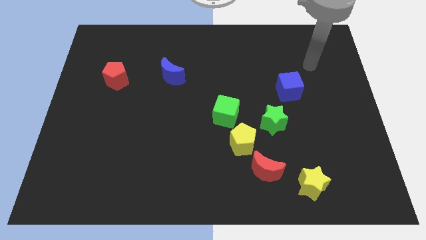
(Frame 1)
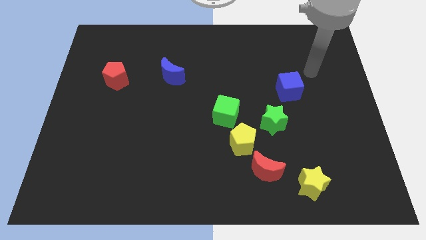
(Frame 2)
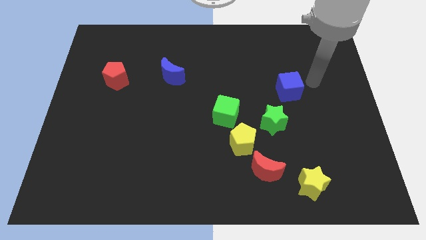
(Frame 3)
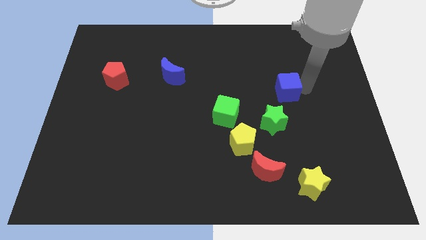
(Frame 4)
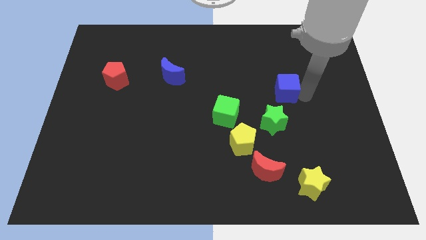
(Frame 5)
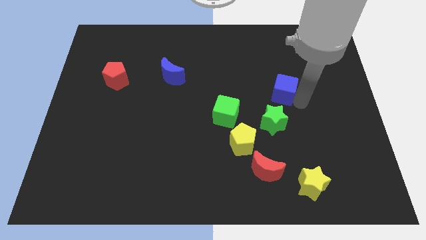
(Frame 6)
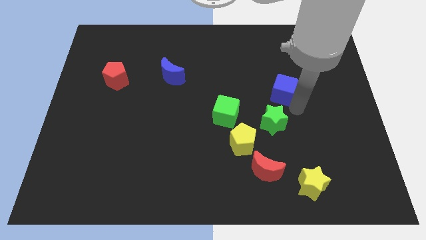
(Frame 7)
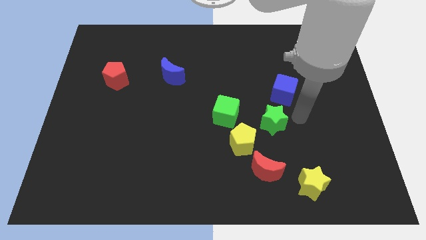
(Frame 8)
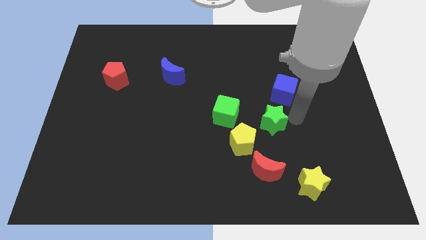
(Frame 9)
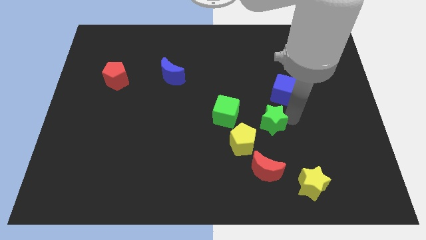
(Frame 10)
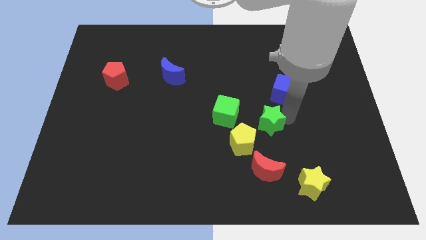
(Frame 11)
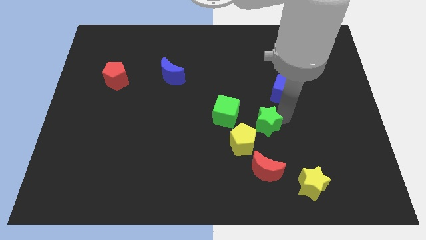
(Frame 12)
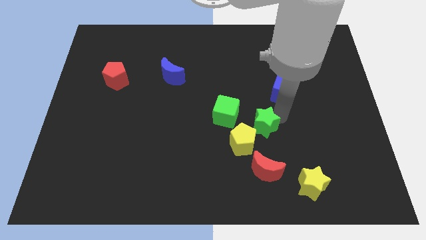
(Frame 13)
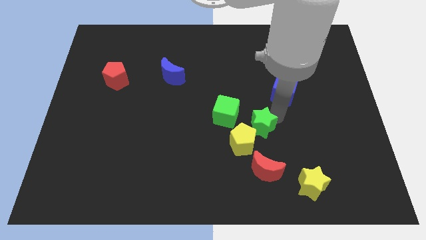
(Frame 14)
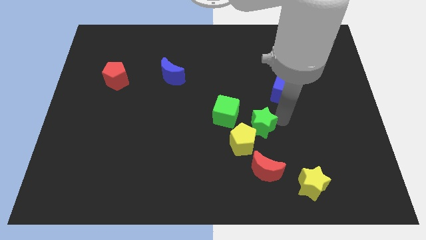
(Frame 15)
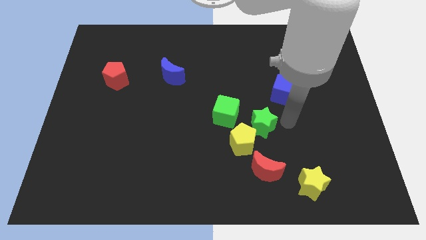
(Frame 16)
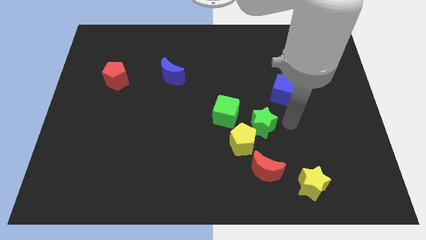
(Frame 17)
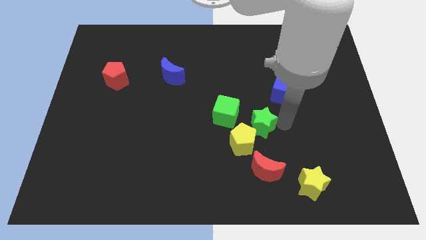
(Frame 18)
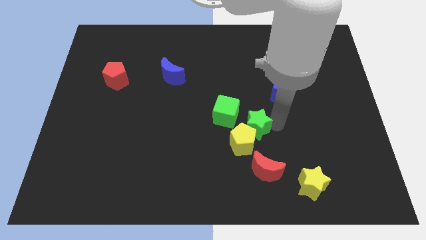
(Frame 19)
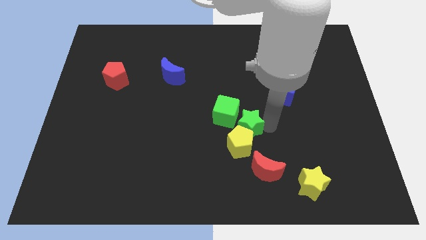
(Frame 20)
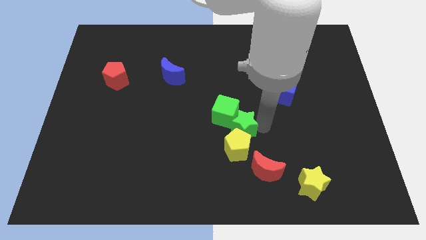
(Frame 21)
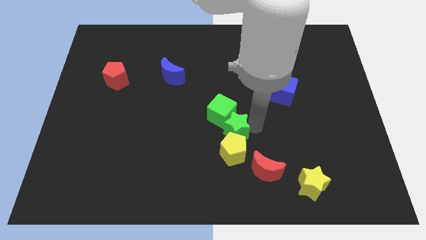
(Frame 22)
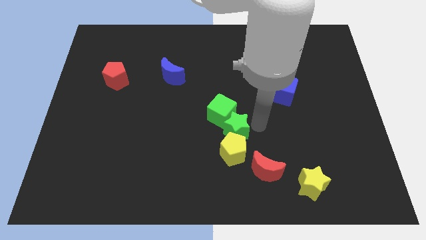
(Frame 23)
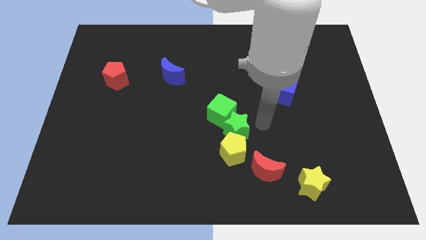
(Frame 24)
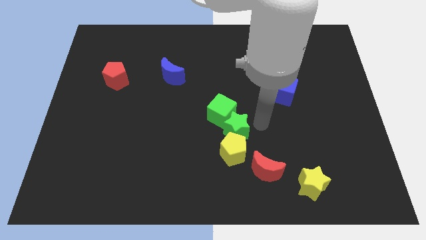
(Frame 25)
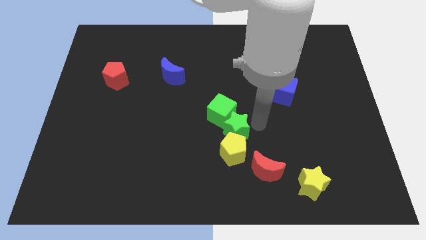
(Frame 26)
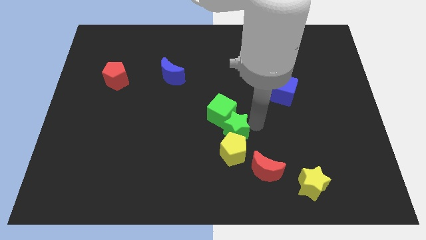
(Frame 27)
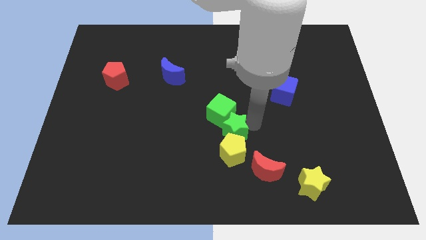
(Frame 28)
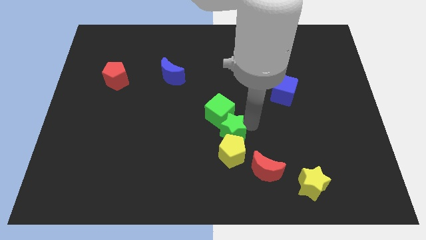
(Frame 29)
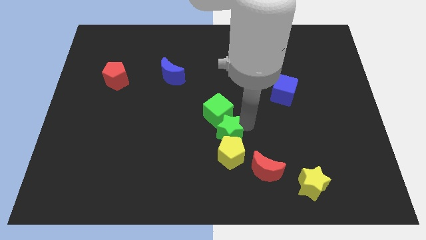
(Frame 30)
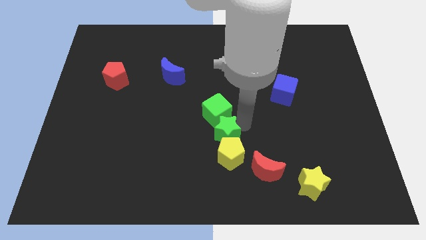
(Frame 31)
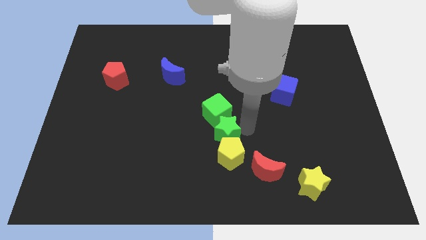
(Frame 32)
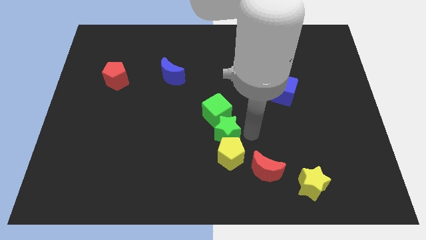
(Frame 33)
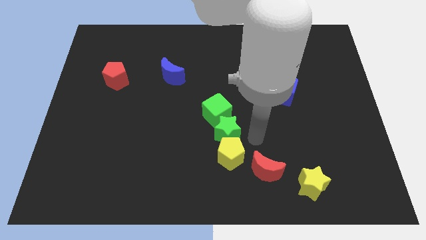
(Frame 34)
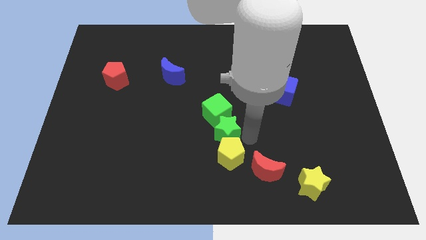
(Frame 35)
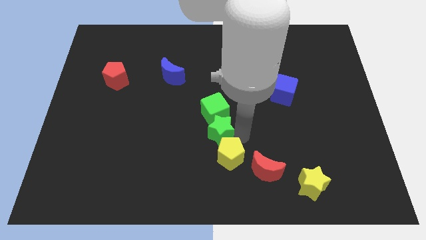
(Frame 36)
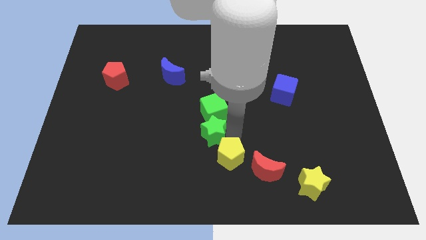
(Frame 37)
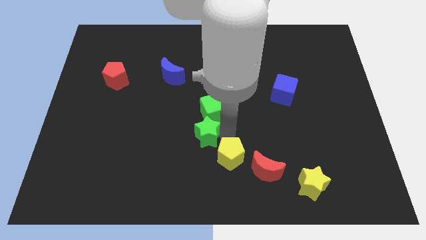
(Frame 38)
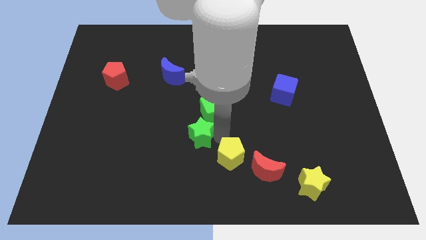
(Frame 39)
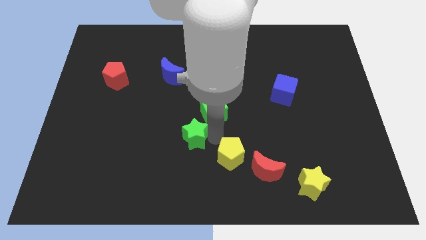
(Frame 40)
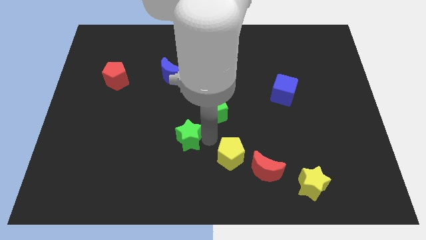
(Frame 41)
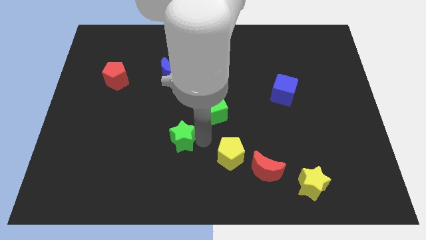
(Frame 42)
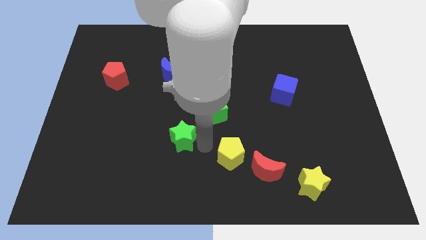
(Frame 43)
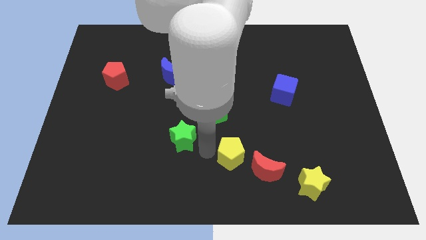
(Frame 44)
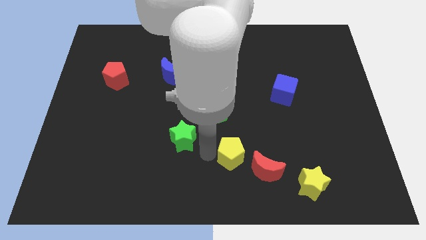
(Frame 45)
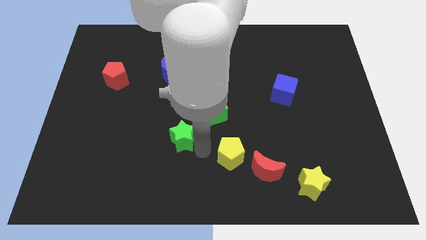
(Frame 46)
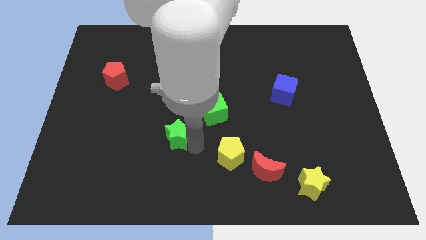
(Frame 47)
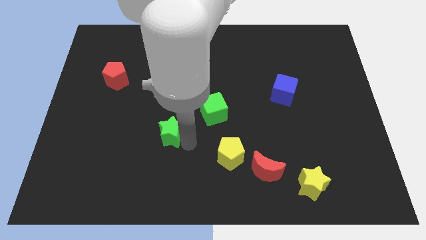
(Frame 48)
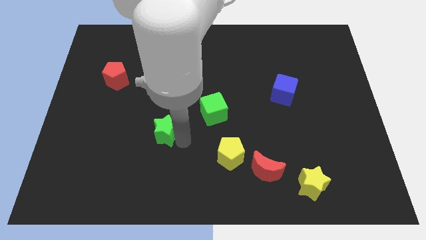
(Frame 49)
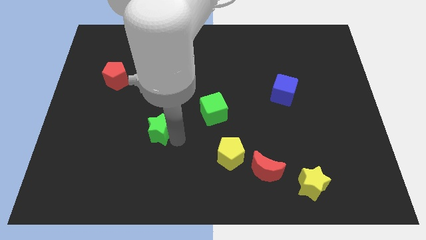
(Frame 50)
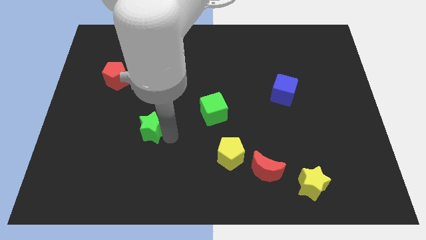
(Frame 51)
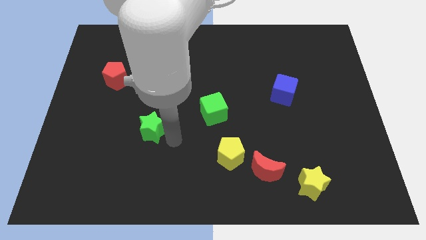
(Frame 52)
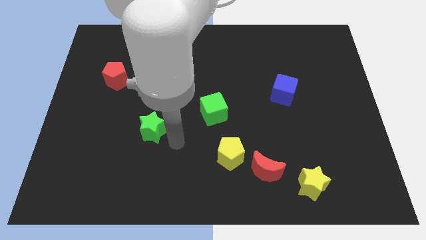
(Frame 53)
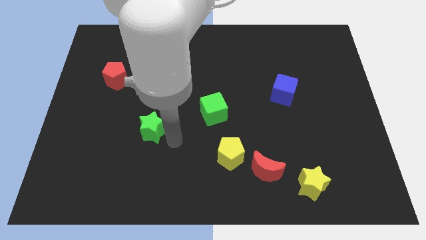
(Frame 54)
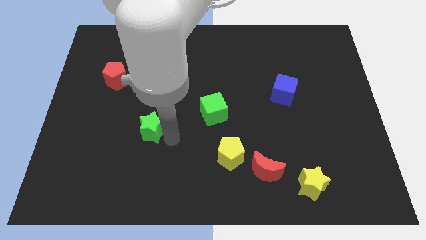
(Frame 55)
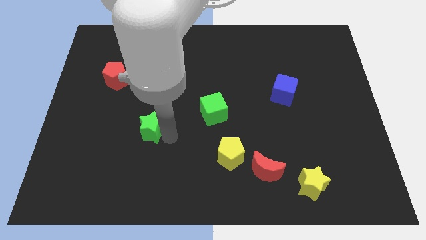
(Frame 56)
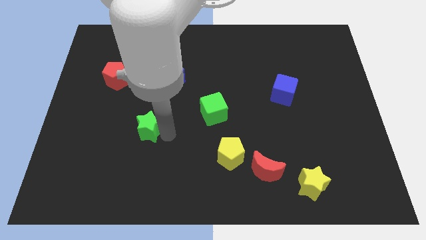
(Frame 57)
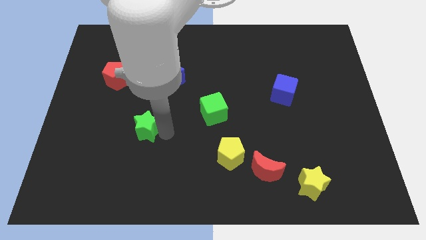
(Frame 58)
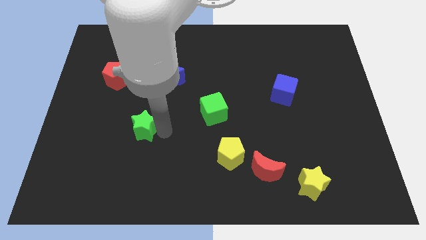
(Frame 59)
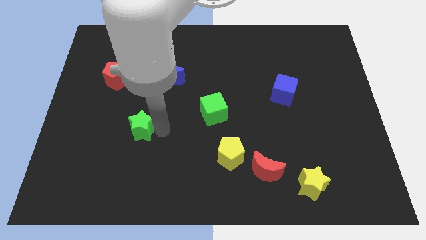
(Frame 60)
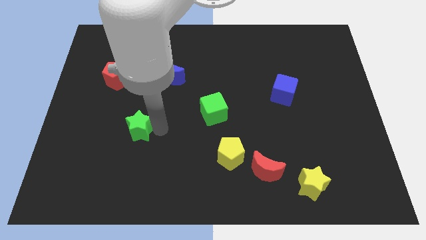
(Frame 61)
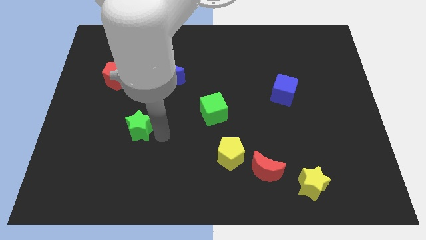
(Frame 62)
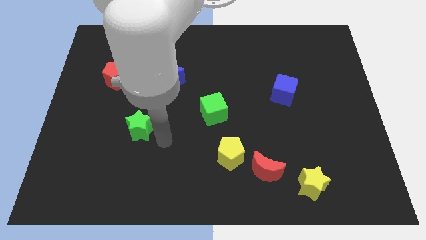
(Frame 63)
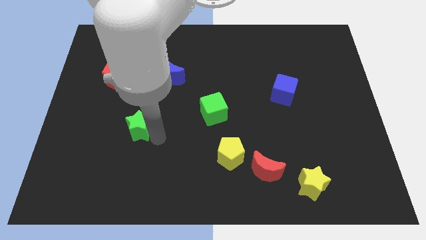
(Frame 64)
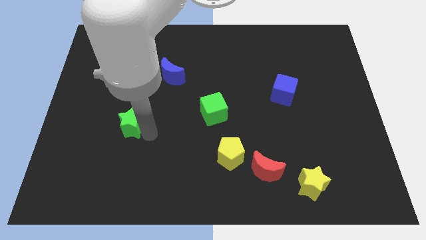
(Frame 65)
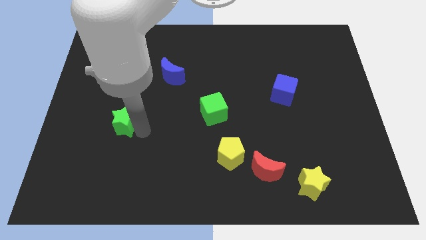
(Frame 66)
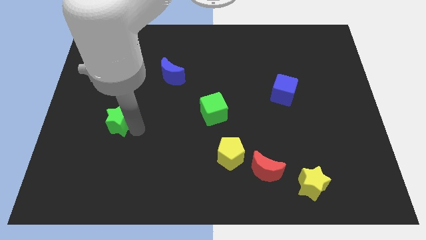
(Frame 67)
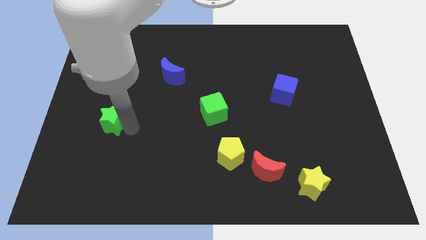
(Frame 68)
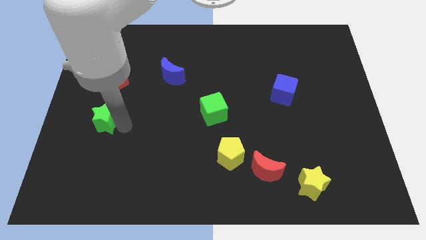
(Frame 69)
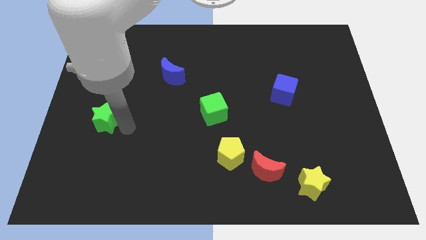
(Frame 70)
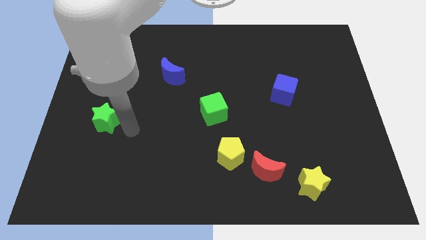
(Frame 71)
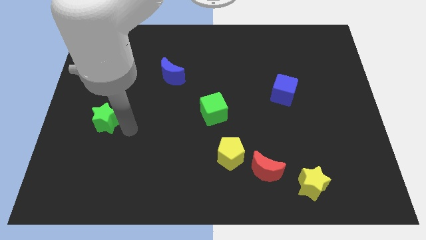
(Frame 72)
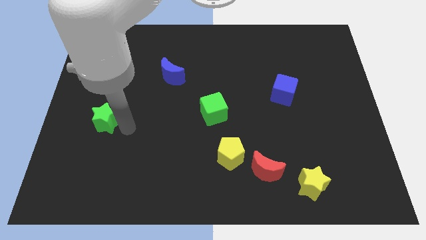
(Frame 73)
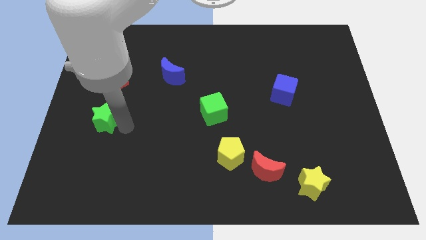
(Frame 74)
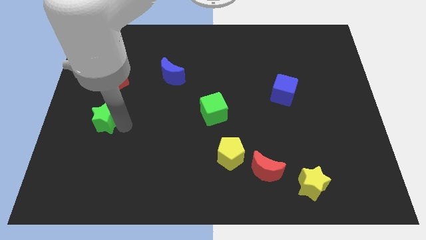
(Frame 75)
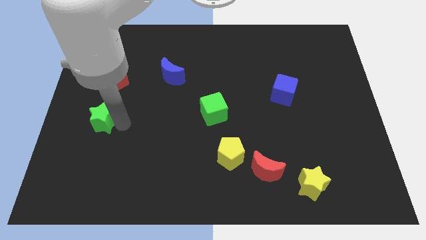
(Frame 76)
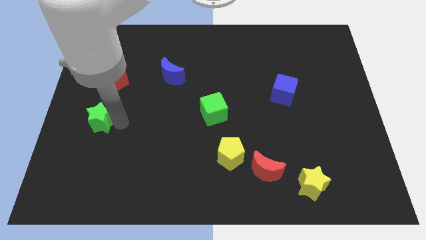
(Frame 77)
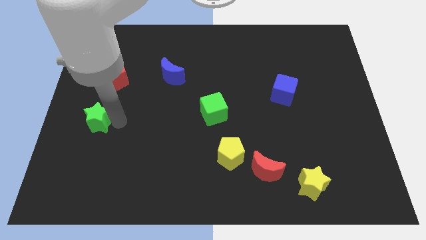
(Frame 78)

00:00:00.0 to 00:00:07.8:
push the green star to the left side
